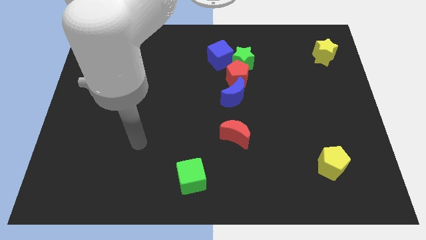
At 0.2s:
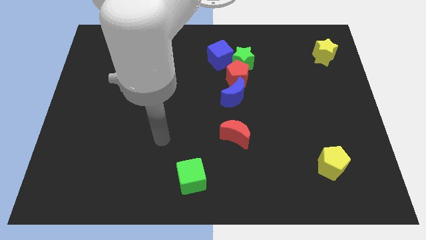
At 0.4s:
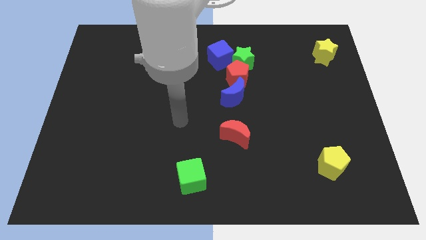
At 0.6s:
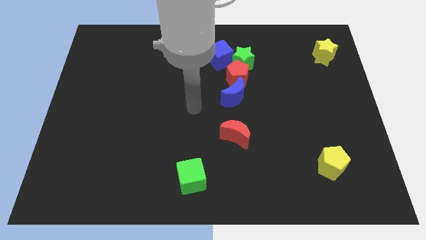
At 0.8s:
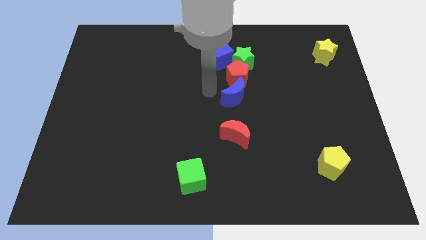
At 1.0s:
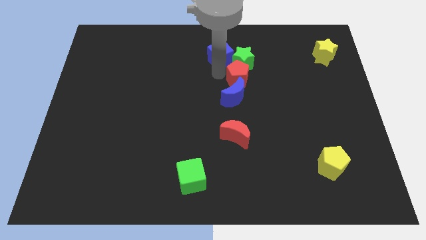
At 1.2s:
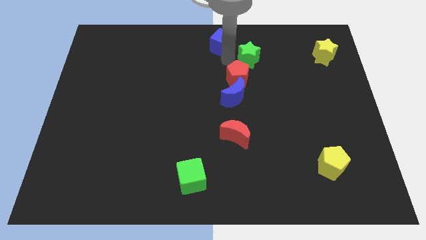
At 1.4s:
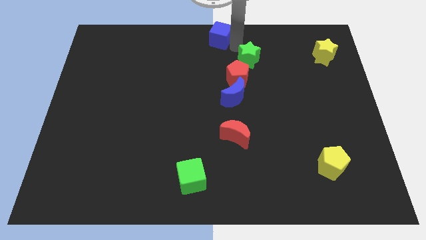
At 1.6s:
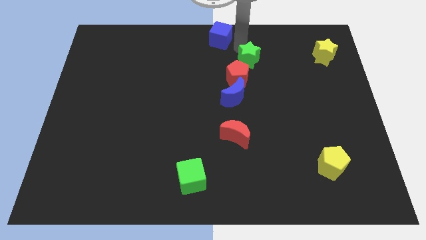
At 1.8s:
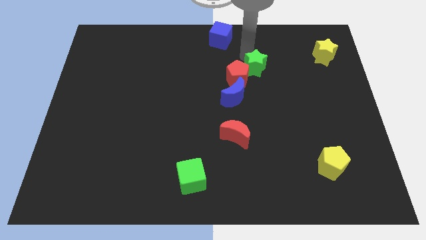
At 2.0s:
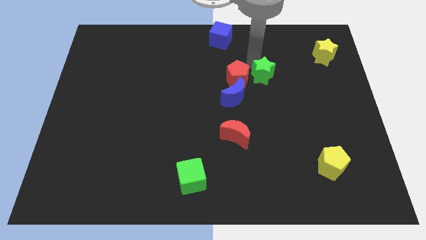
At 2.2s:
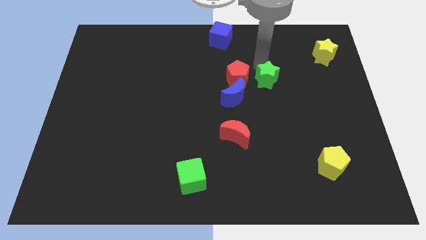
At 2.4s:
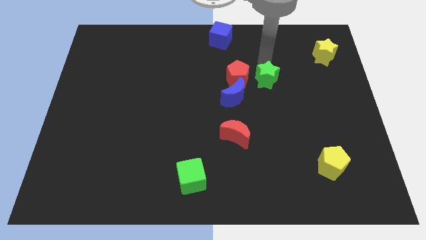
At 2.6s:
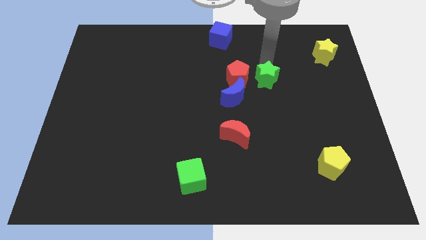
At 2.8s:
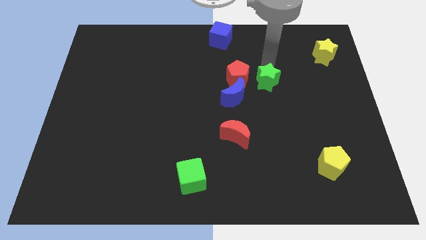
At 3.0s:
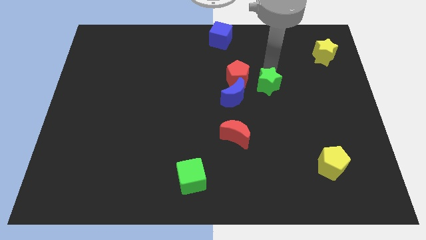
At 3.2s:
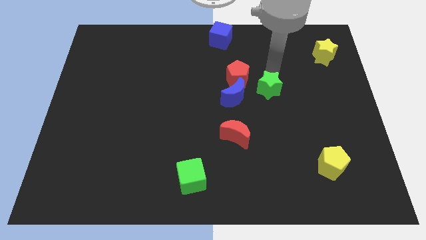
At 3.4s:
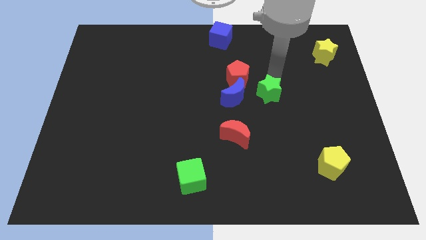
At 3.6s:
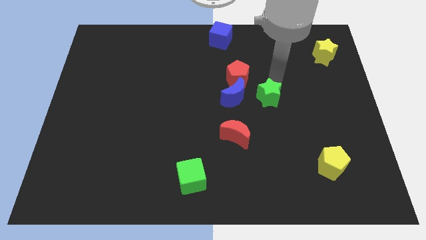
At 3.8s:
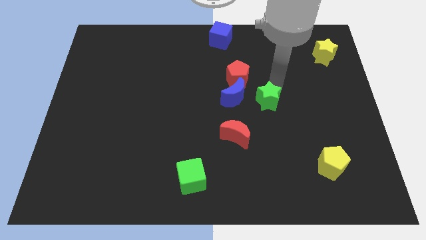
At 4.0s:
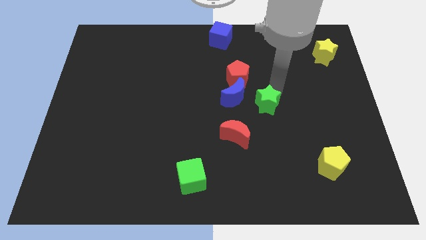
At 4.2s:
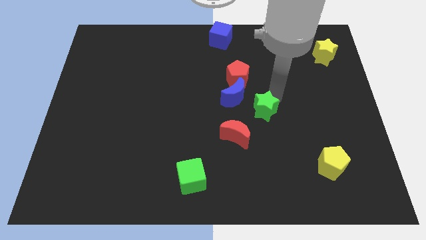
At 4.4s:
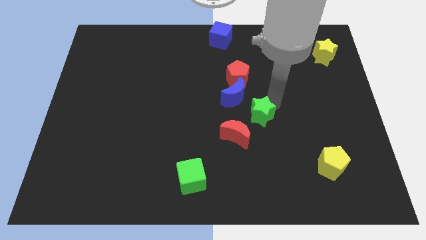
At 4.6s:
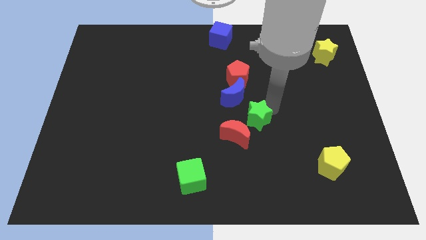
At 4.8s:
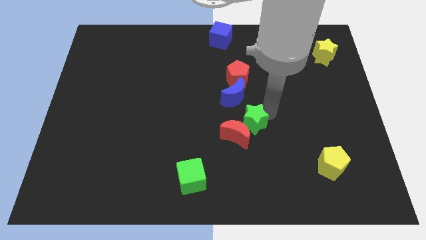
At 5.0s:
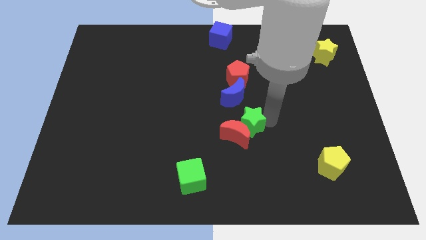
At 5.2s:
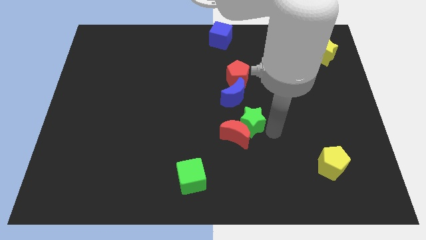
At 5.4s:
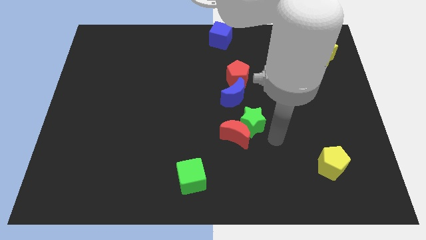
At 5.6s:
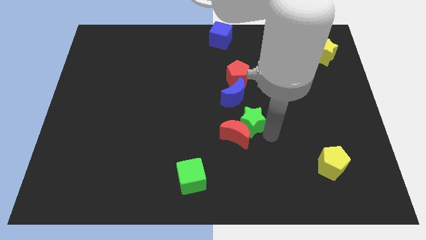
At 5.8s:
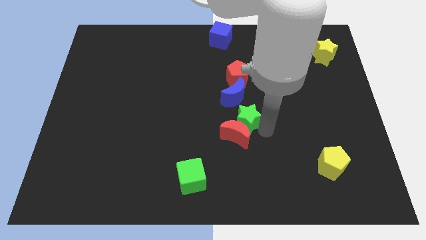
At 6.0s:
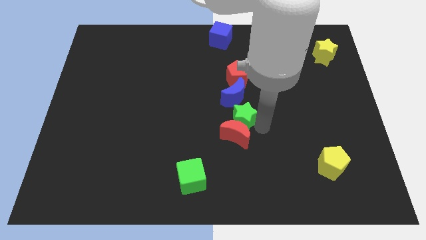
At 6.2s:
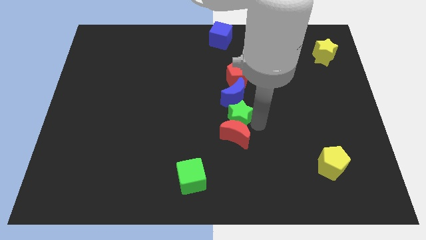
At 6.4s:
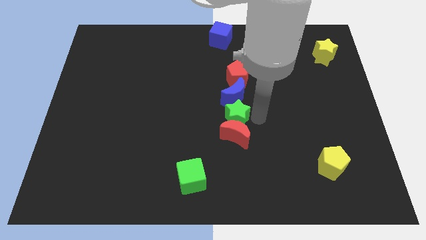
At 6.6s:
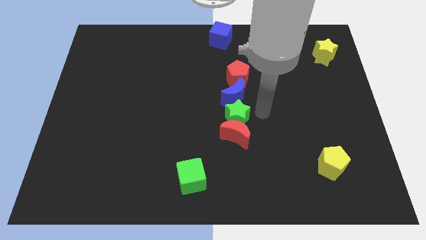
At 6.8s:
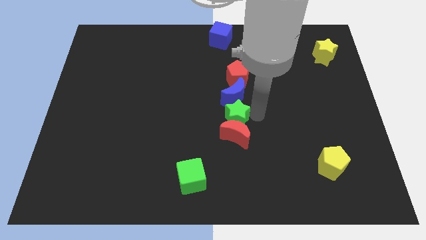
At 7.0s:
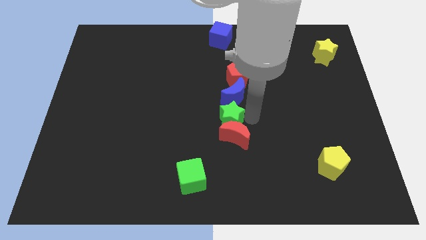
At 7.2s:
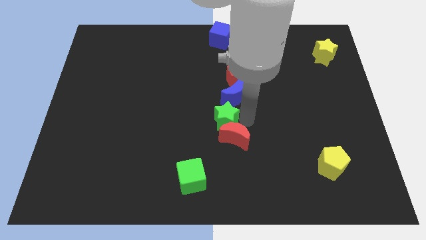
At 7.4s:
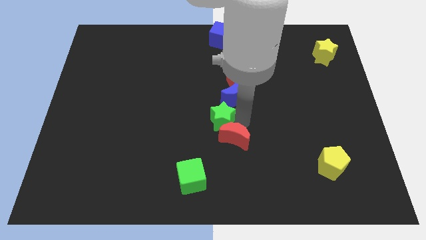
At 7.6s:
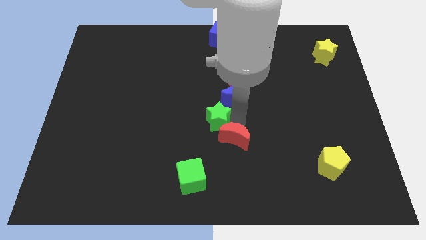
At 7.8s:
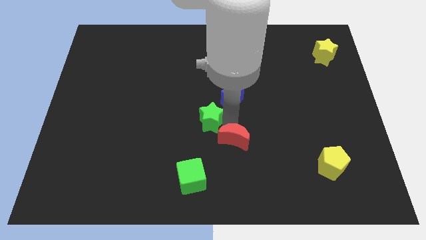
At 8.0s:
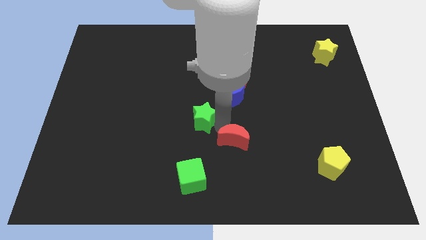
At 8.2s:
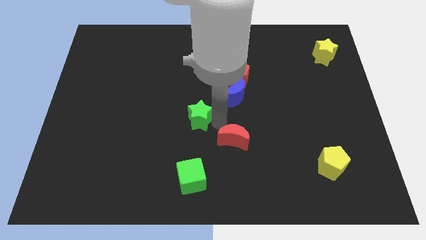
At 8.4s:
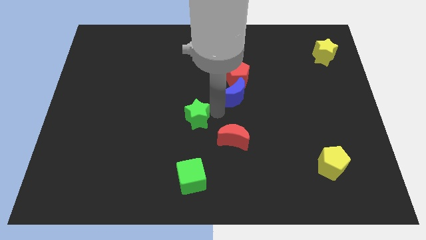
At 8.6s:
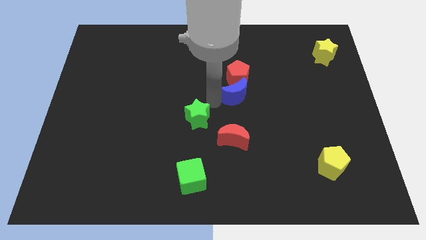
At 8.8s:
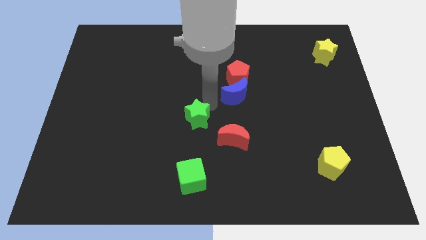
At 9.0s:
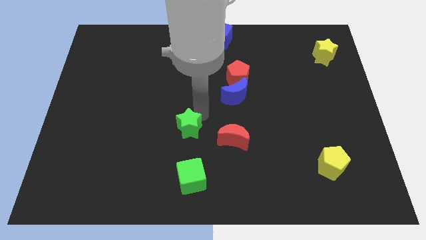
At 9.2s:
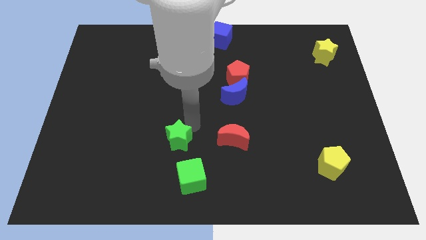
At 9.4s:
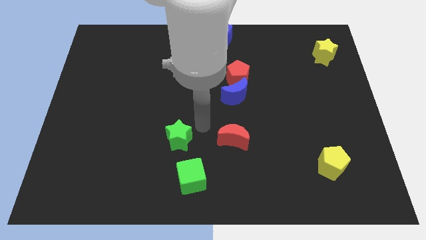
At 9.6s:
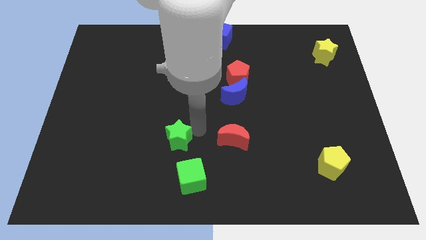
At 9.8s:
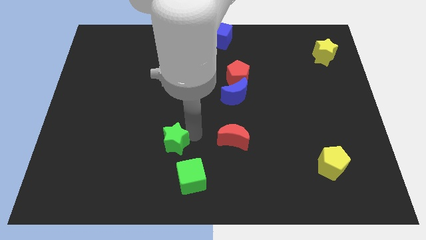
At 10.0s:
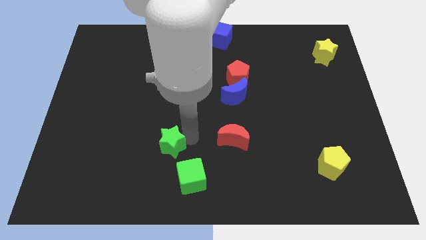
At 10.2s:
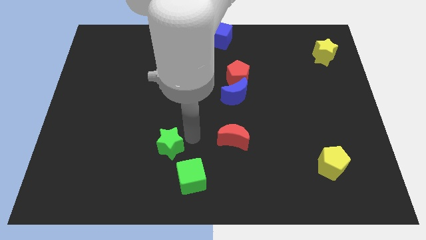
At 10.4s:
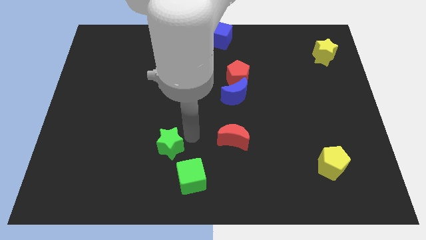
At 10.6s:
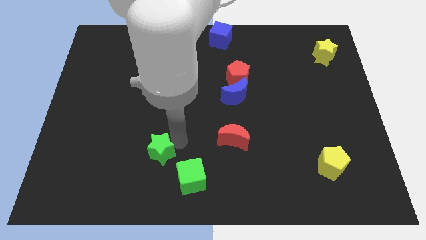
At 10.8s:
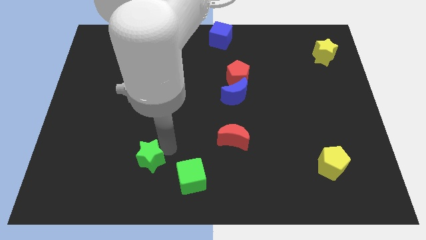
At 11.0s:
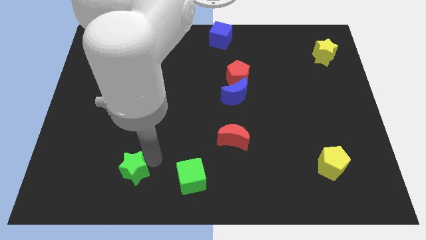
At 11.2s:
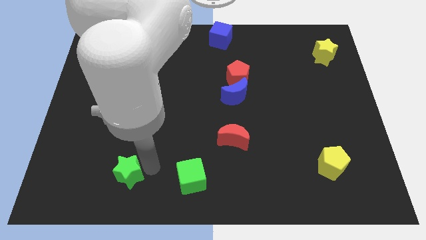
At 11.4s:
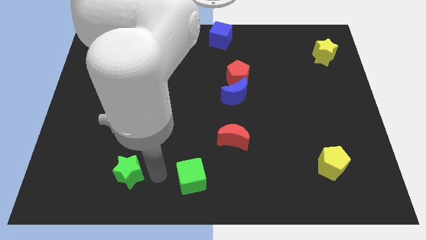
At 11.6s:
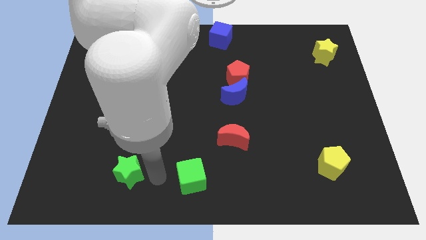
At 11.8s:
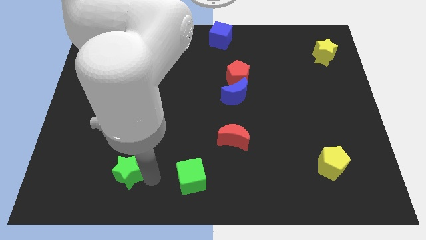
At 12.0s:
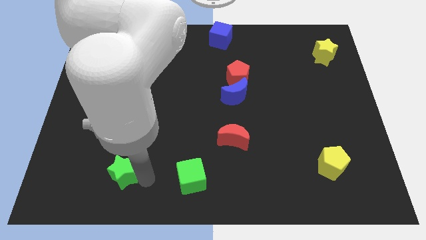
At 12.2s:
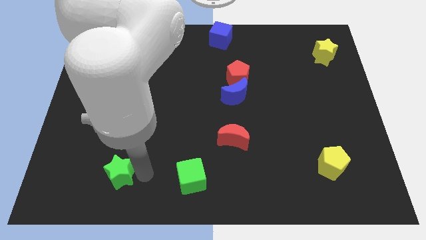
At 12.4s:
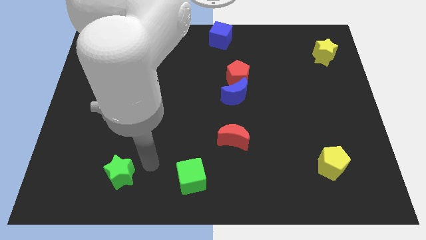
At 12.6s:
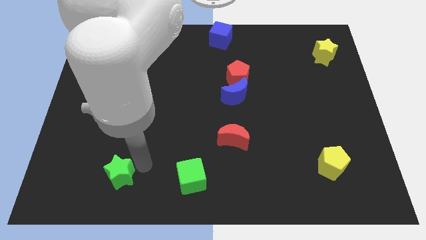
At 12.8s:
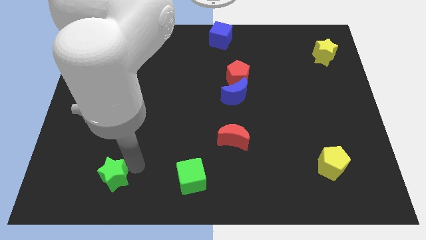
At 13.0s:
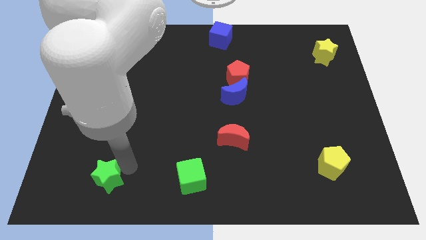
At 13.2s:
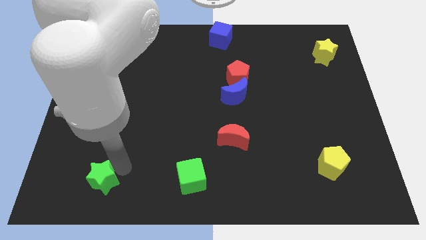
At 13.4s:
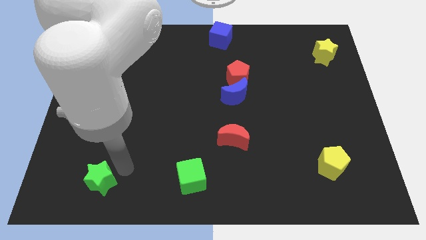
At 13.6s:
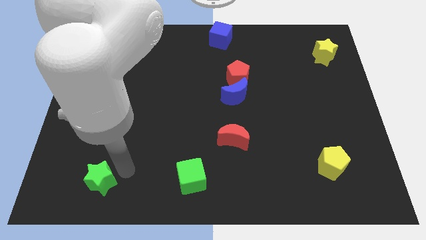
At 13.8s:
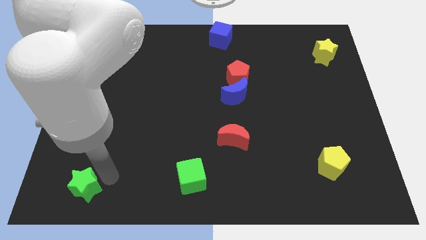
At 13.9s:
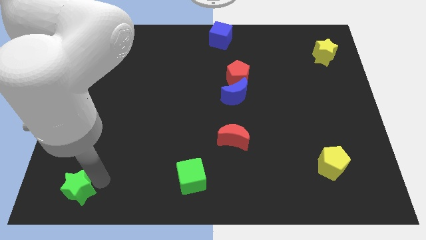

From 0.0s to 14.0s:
push the green star to the lower left corner

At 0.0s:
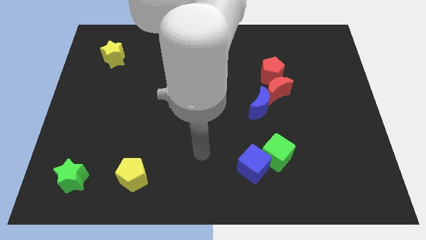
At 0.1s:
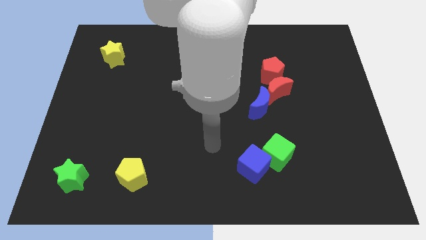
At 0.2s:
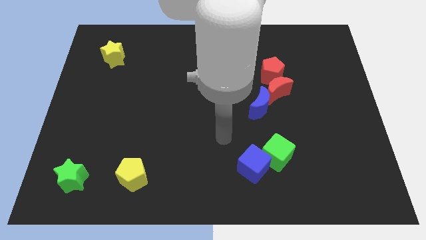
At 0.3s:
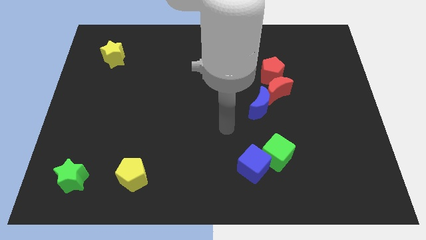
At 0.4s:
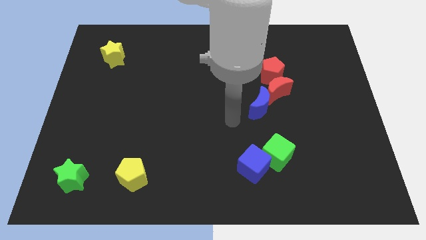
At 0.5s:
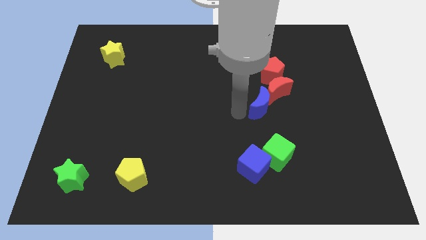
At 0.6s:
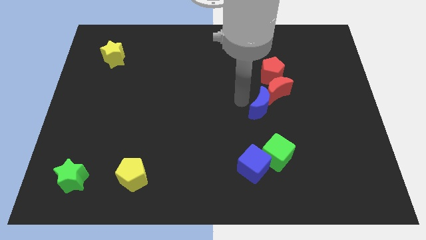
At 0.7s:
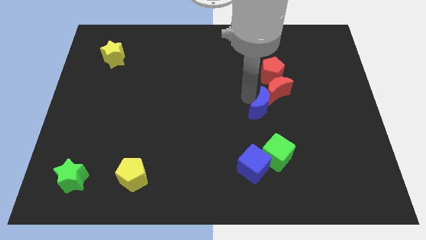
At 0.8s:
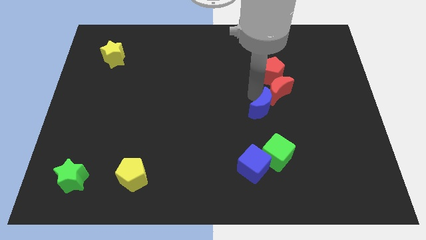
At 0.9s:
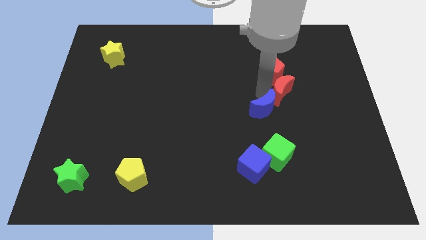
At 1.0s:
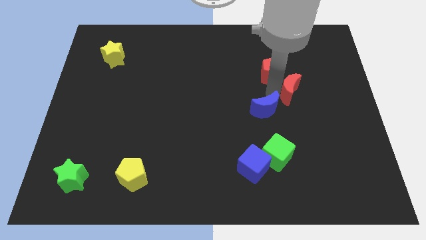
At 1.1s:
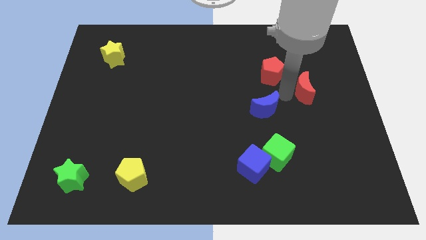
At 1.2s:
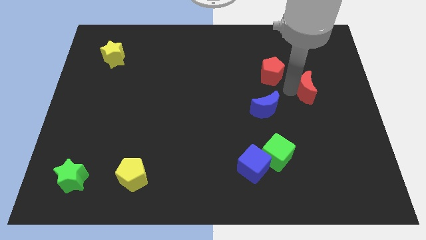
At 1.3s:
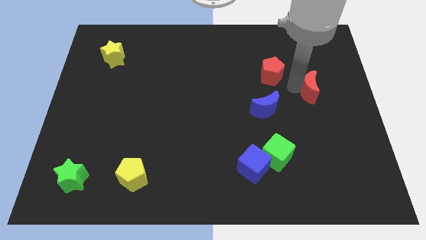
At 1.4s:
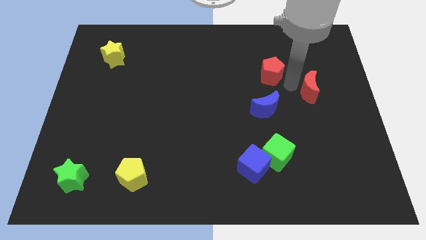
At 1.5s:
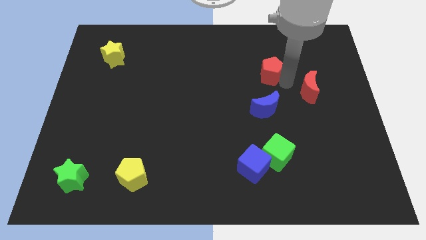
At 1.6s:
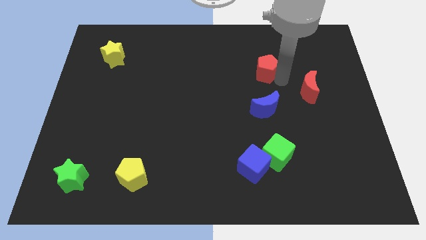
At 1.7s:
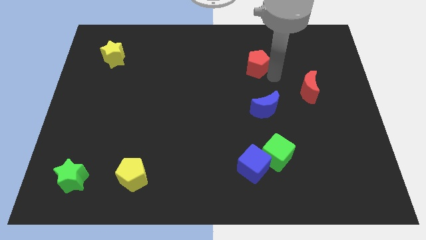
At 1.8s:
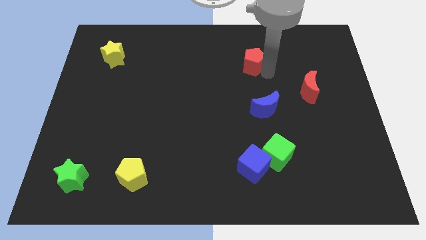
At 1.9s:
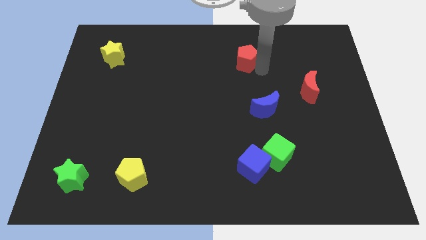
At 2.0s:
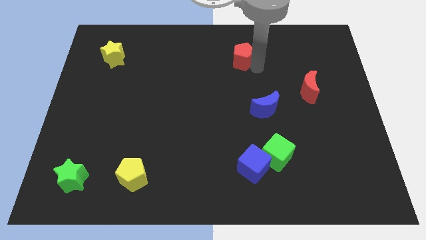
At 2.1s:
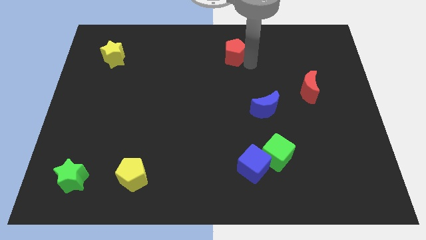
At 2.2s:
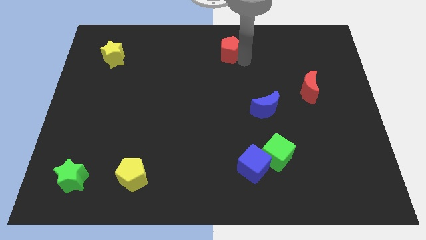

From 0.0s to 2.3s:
put the red pentagon to the top
